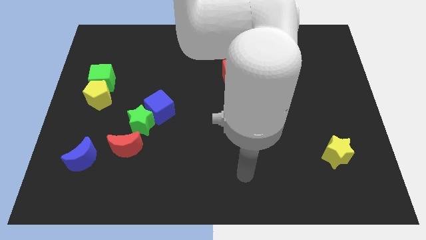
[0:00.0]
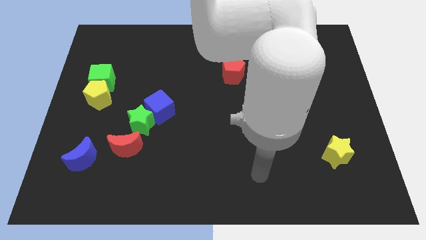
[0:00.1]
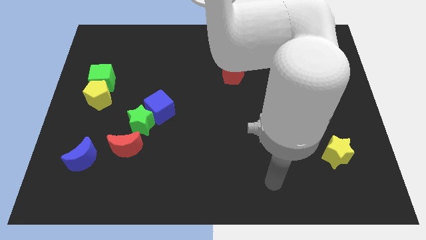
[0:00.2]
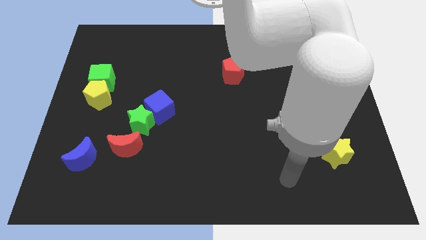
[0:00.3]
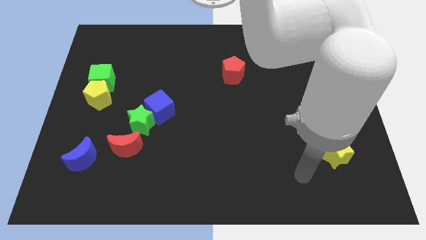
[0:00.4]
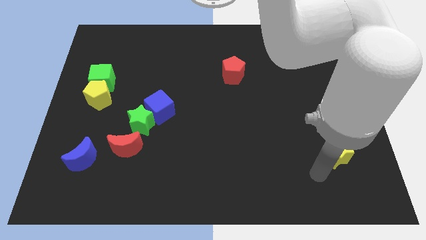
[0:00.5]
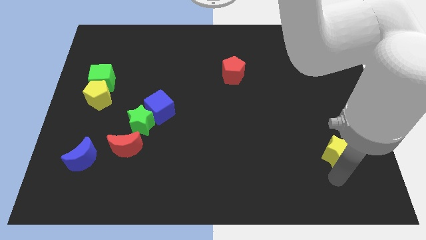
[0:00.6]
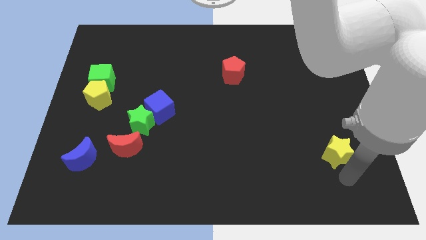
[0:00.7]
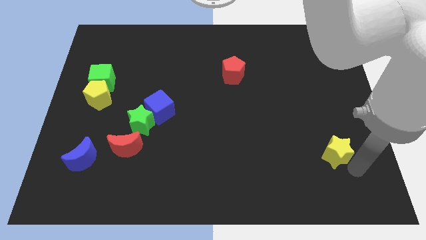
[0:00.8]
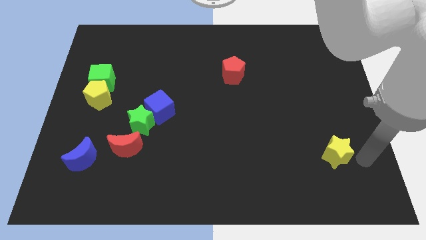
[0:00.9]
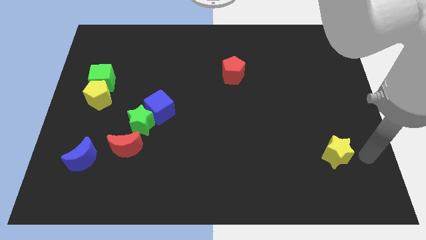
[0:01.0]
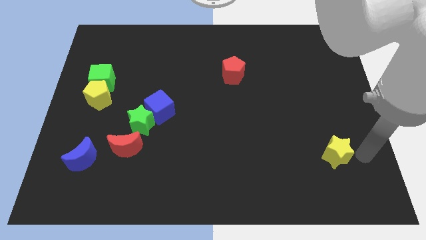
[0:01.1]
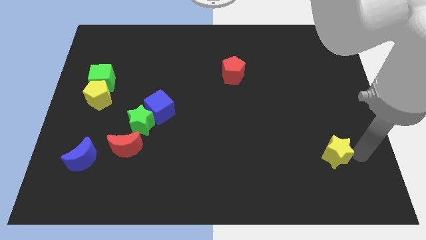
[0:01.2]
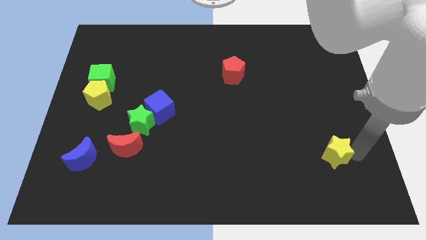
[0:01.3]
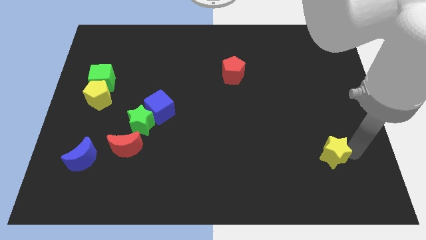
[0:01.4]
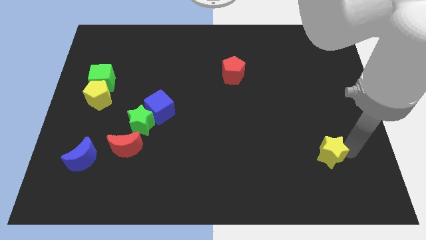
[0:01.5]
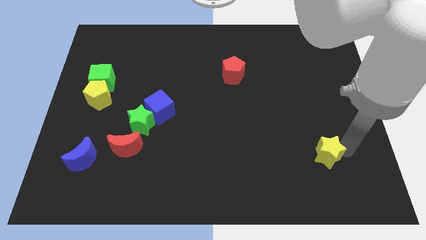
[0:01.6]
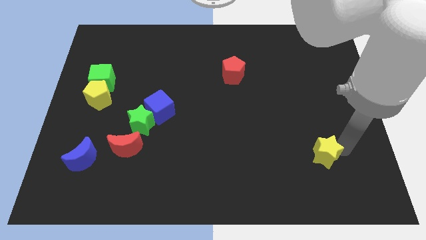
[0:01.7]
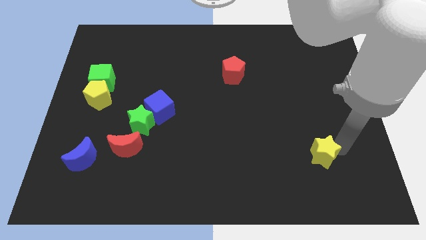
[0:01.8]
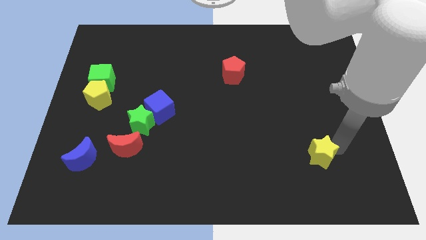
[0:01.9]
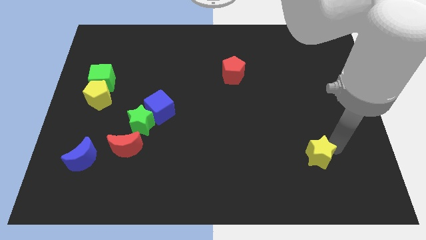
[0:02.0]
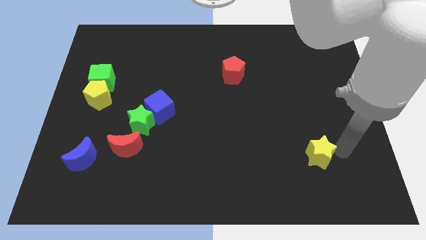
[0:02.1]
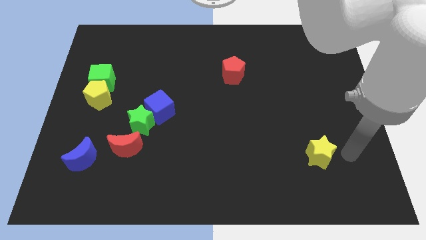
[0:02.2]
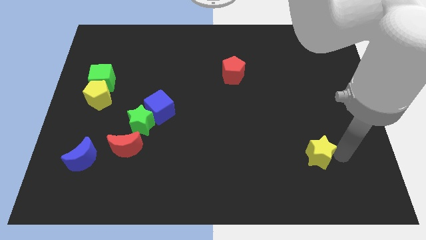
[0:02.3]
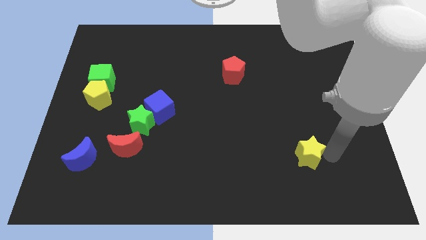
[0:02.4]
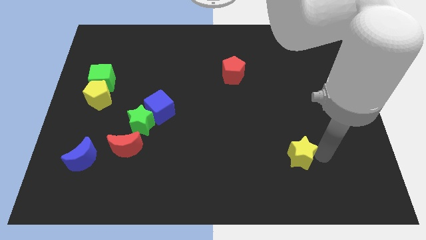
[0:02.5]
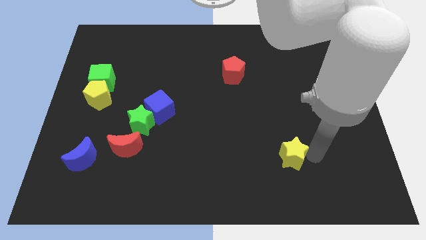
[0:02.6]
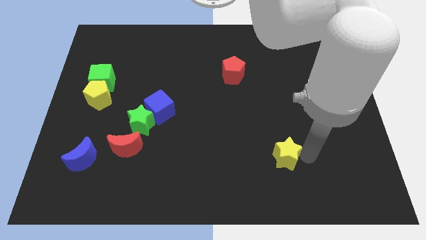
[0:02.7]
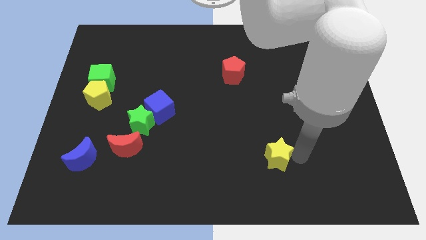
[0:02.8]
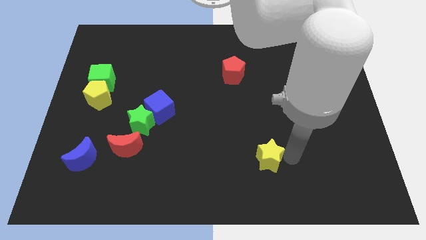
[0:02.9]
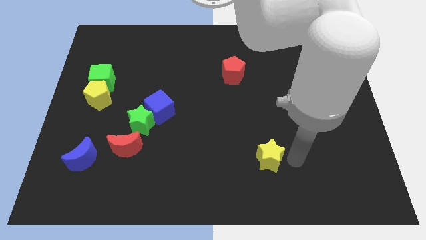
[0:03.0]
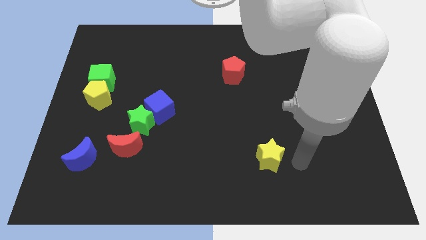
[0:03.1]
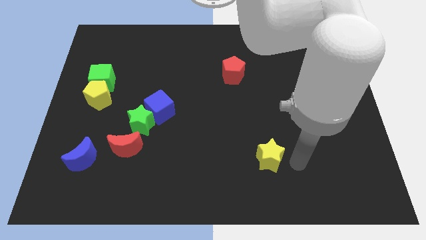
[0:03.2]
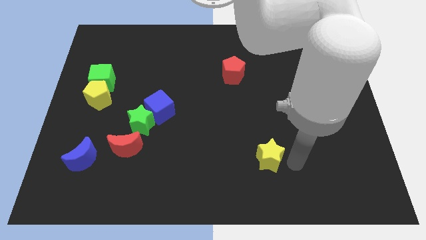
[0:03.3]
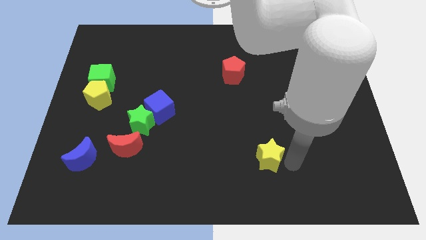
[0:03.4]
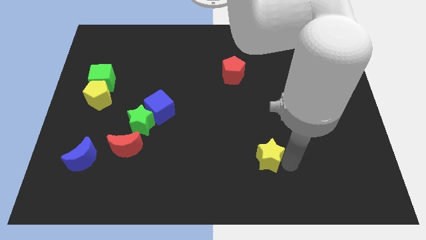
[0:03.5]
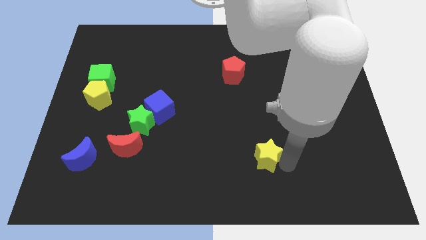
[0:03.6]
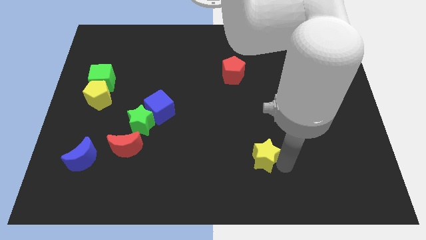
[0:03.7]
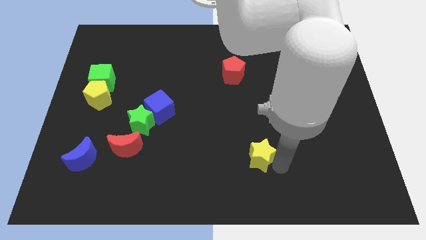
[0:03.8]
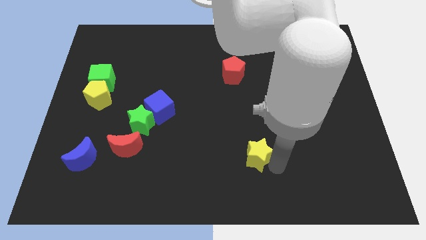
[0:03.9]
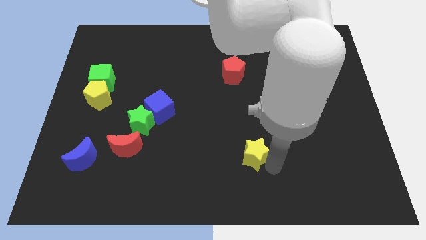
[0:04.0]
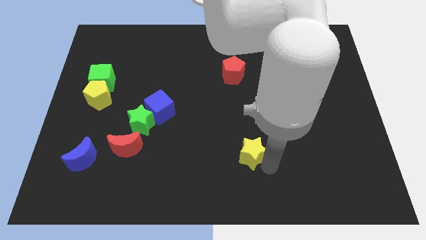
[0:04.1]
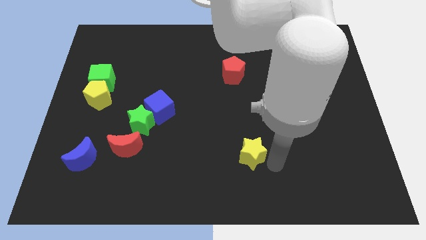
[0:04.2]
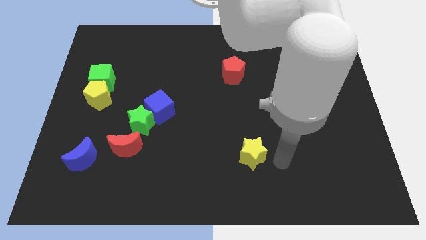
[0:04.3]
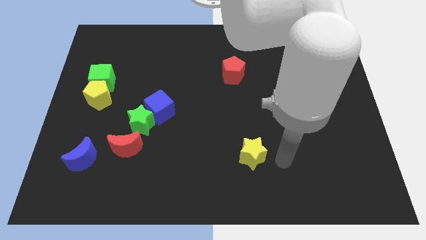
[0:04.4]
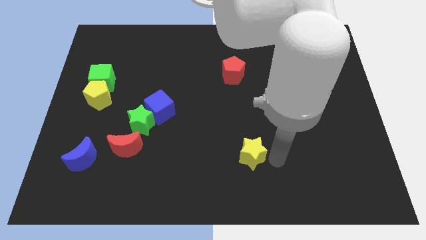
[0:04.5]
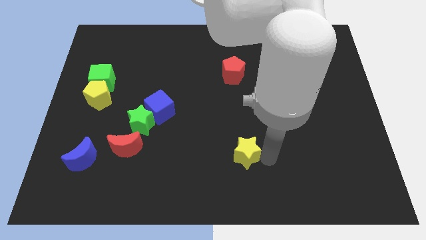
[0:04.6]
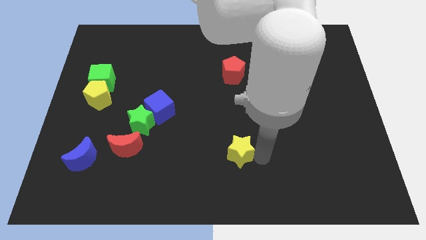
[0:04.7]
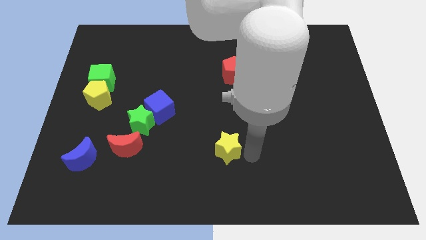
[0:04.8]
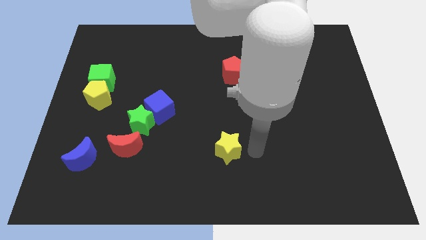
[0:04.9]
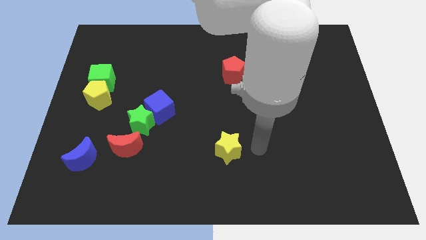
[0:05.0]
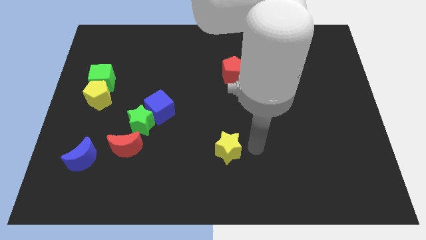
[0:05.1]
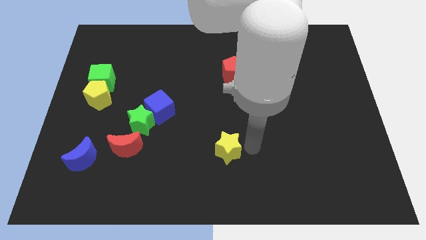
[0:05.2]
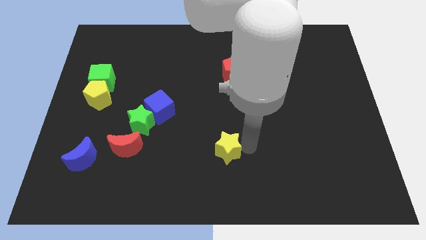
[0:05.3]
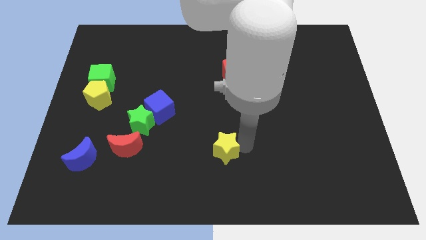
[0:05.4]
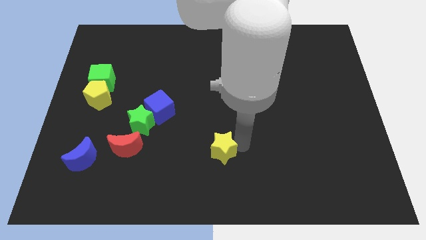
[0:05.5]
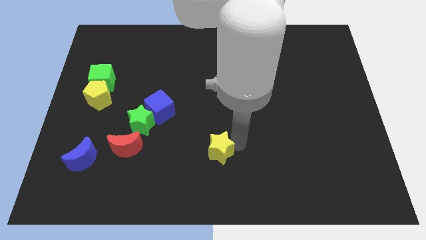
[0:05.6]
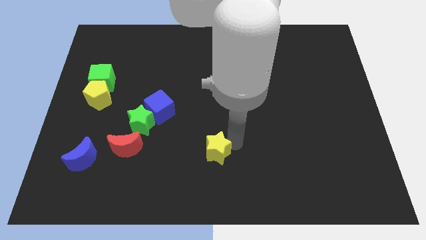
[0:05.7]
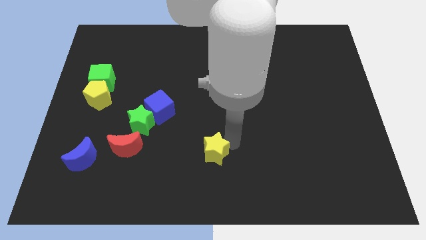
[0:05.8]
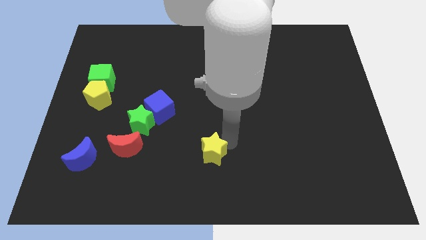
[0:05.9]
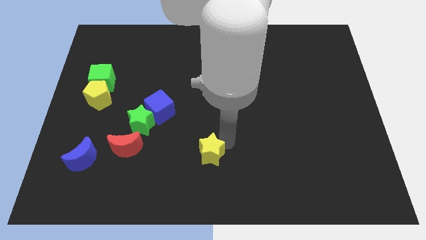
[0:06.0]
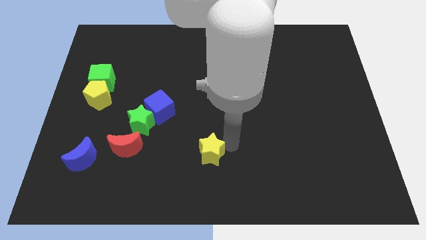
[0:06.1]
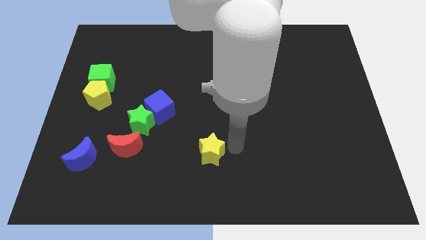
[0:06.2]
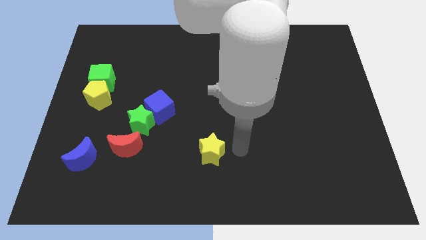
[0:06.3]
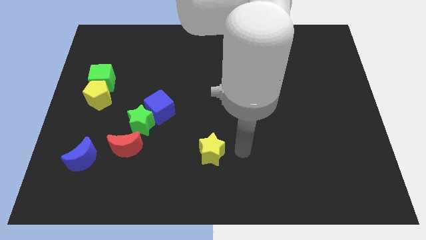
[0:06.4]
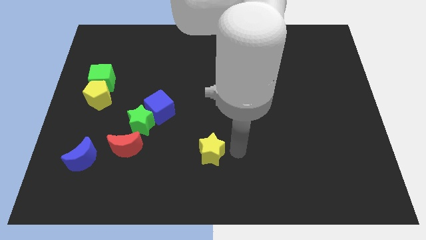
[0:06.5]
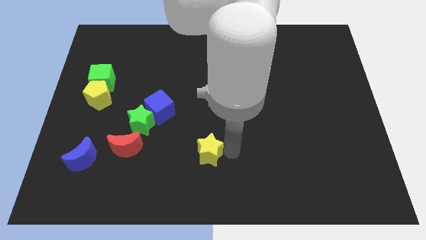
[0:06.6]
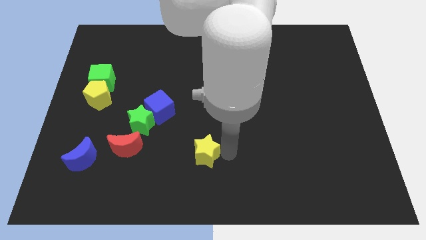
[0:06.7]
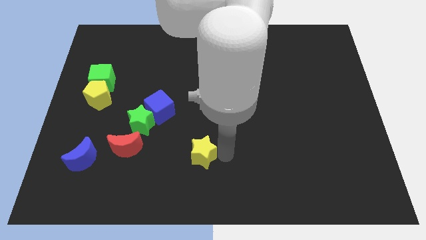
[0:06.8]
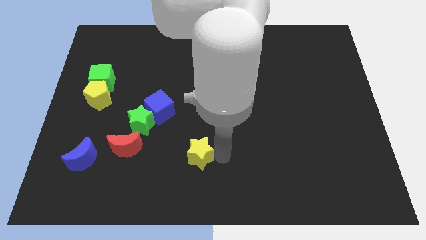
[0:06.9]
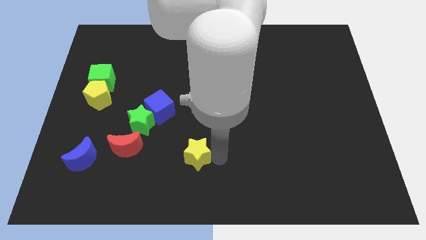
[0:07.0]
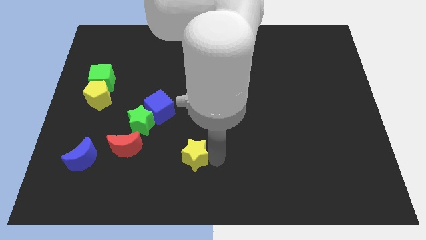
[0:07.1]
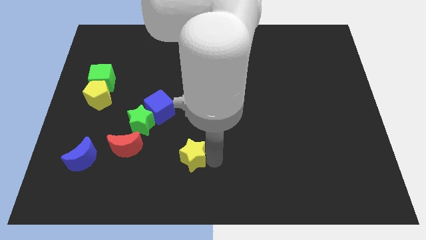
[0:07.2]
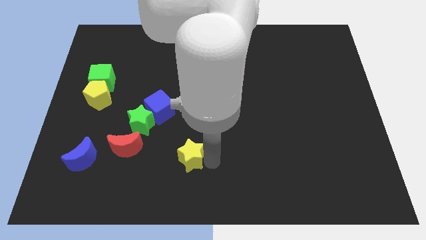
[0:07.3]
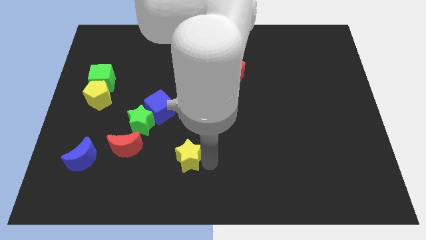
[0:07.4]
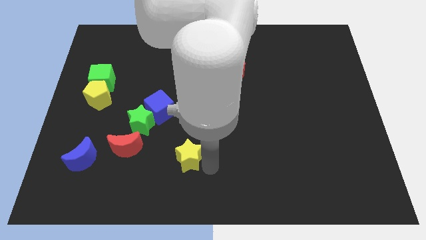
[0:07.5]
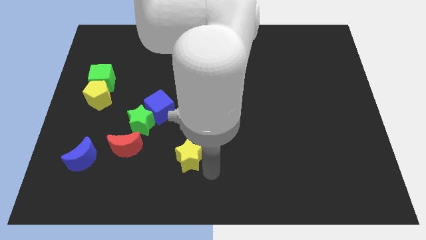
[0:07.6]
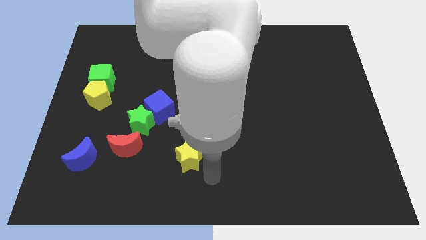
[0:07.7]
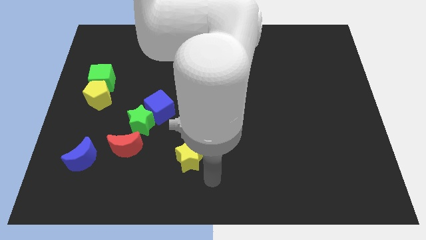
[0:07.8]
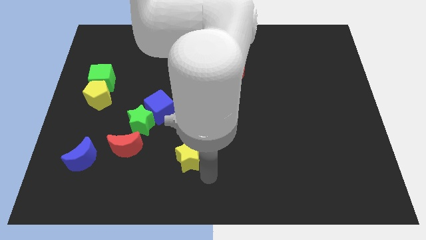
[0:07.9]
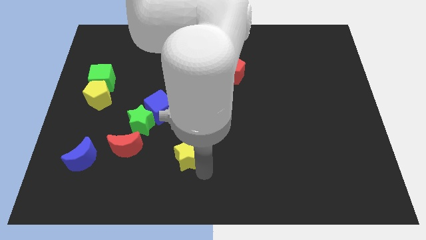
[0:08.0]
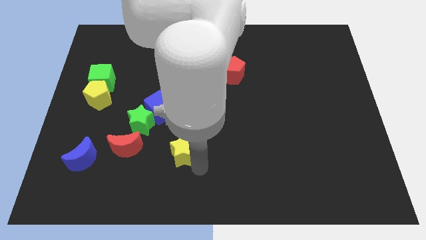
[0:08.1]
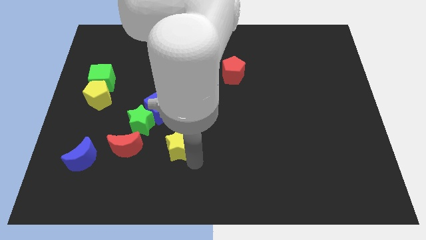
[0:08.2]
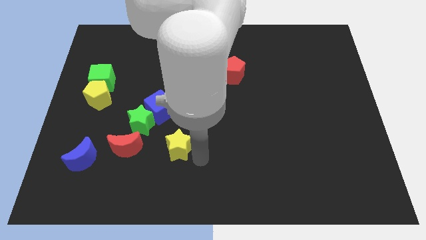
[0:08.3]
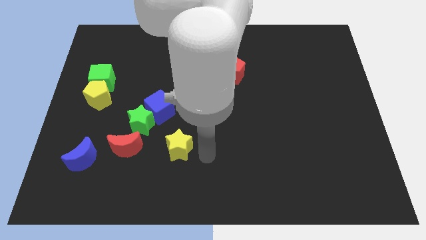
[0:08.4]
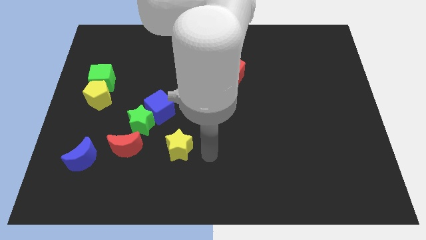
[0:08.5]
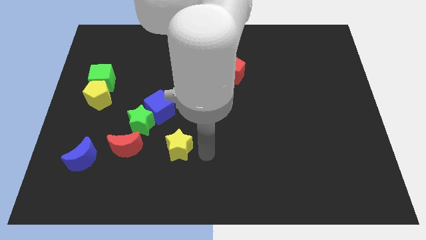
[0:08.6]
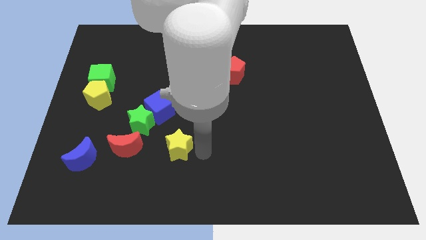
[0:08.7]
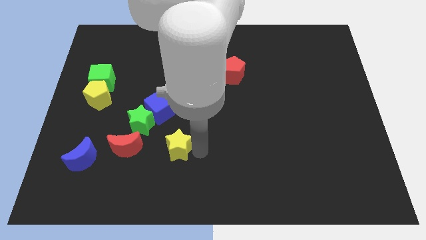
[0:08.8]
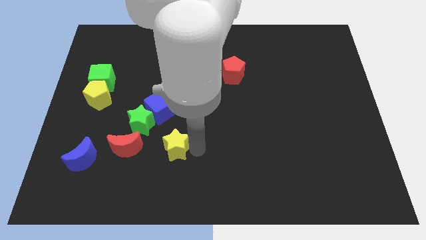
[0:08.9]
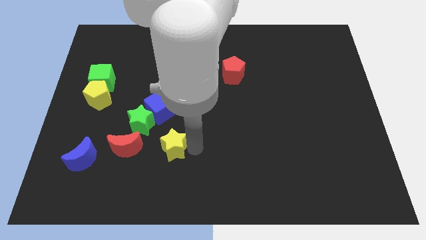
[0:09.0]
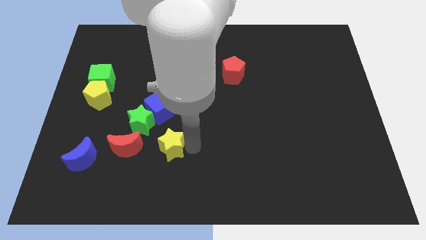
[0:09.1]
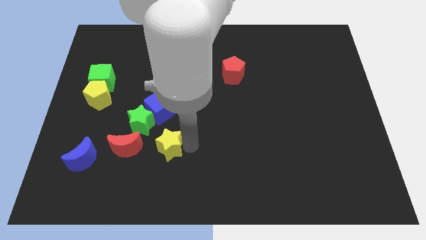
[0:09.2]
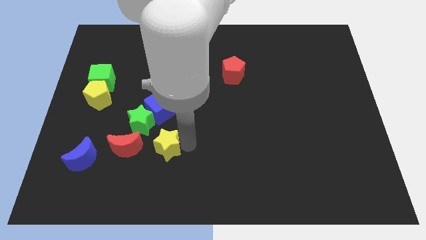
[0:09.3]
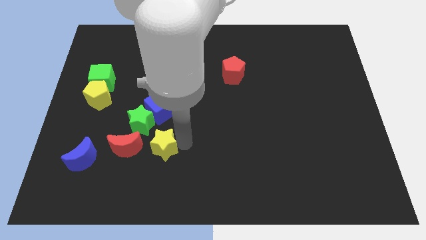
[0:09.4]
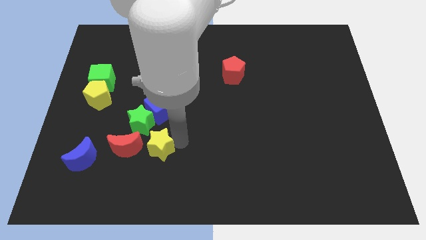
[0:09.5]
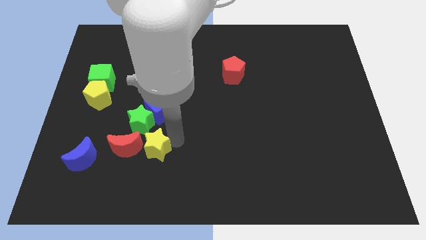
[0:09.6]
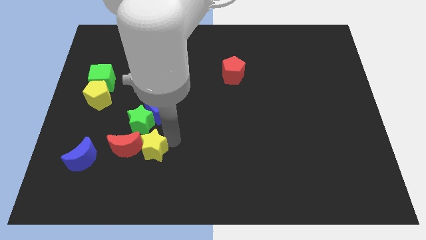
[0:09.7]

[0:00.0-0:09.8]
move the yellow star to the red moon
